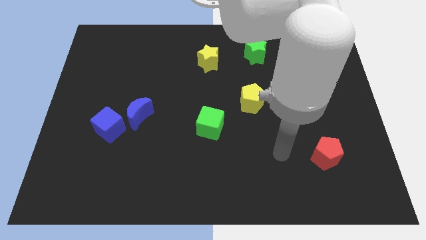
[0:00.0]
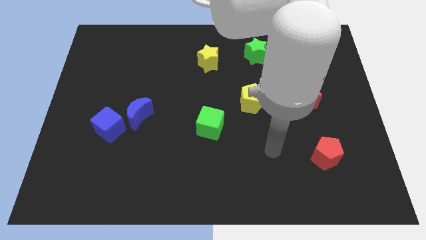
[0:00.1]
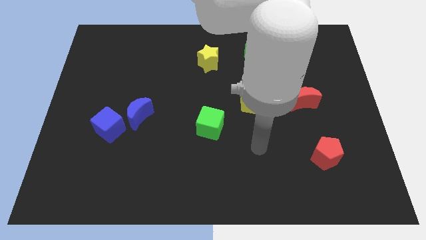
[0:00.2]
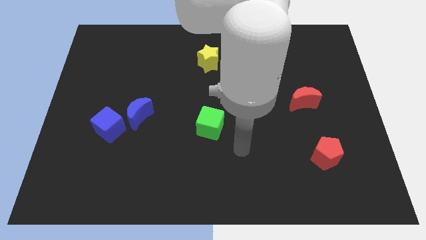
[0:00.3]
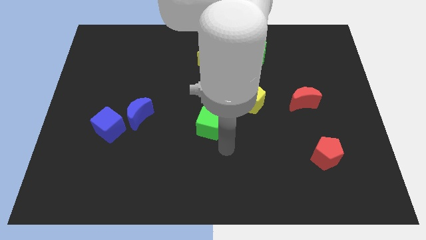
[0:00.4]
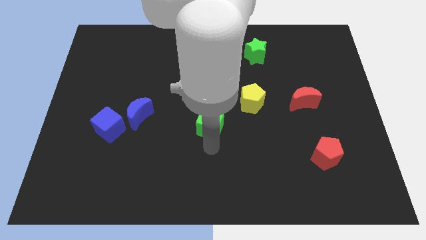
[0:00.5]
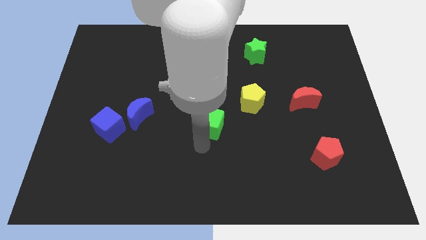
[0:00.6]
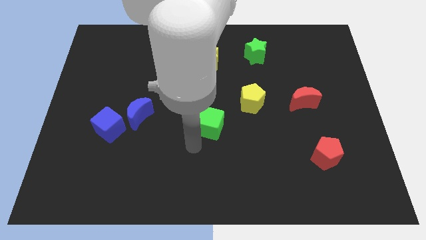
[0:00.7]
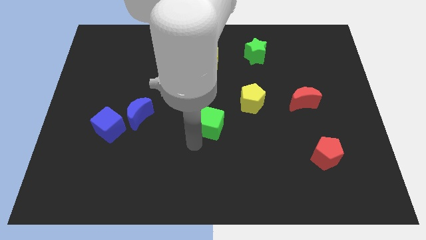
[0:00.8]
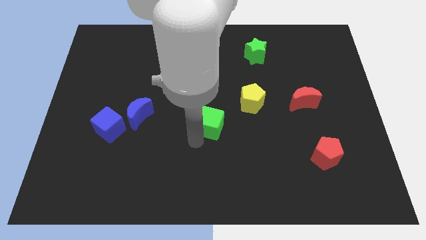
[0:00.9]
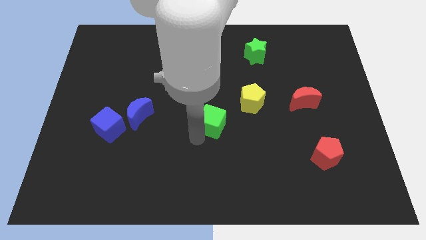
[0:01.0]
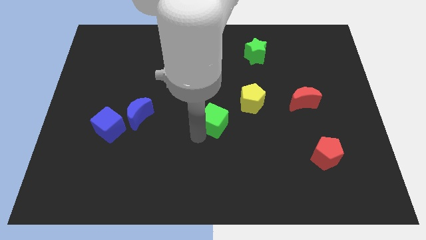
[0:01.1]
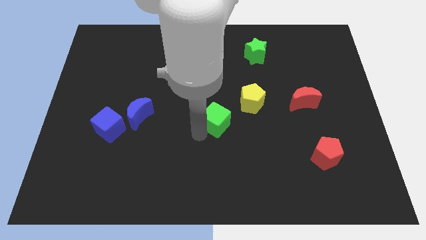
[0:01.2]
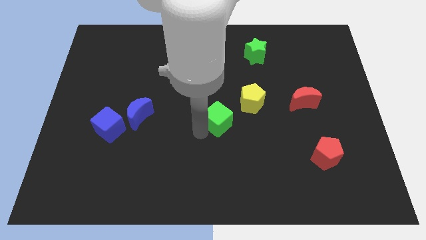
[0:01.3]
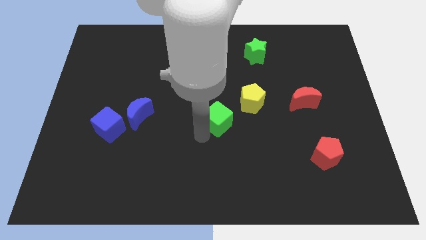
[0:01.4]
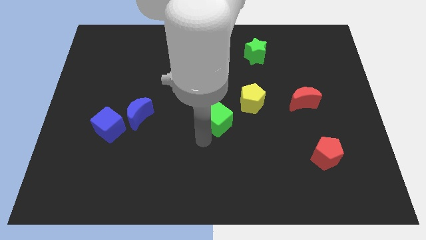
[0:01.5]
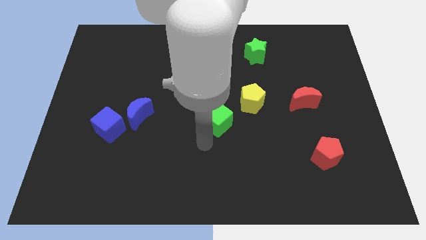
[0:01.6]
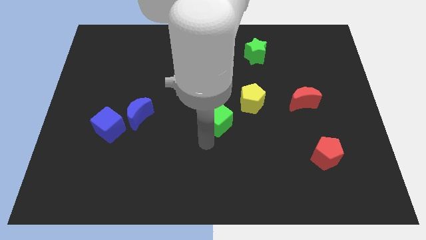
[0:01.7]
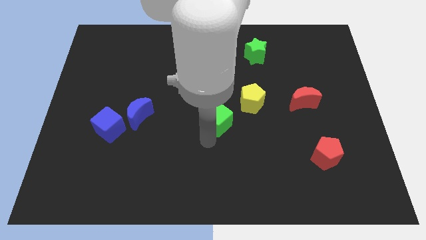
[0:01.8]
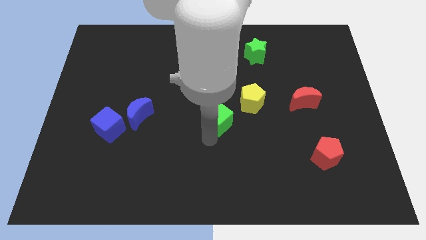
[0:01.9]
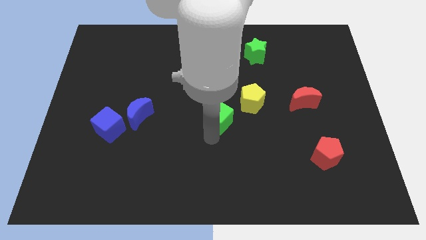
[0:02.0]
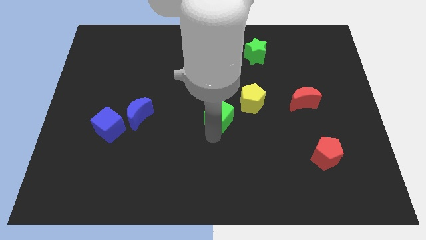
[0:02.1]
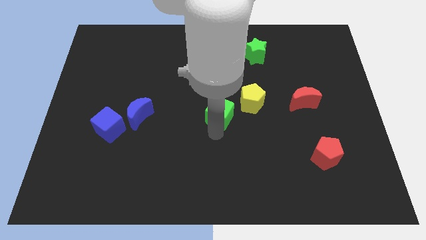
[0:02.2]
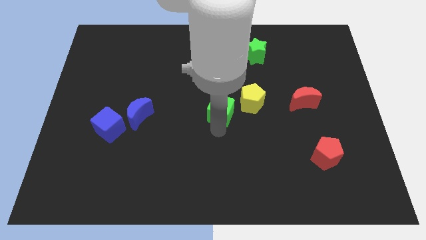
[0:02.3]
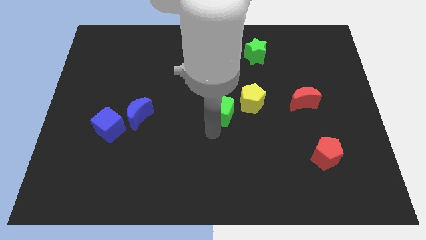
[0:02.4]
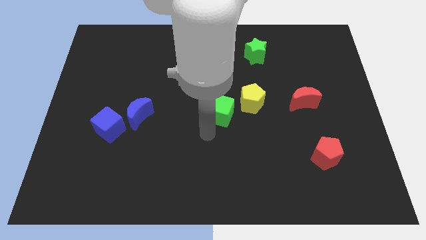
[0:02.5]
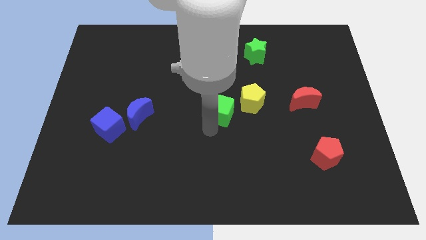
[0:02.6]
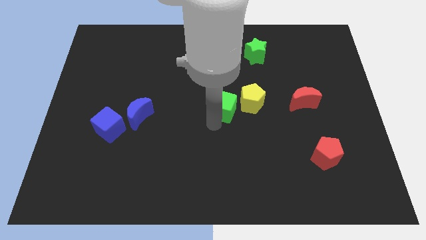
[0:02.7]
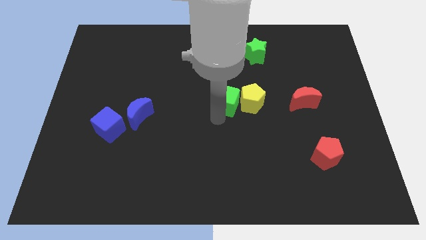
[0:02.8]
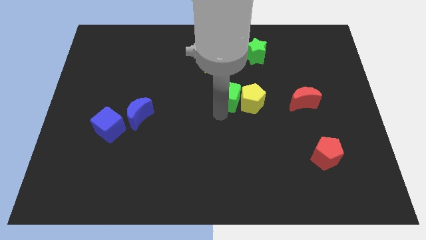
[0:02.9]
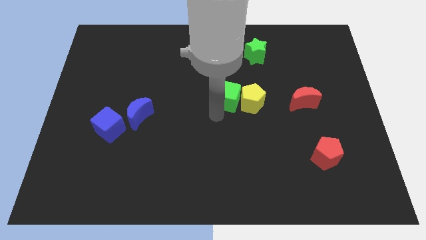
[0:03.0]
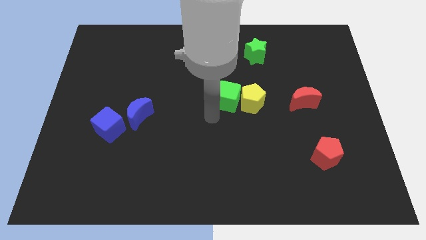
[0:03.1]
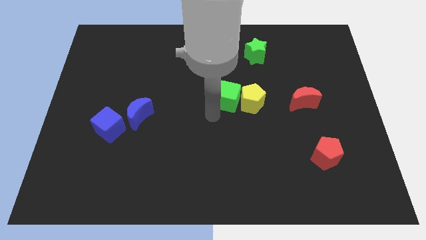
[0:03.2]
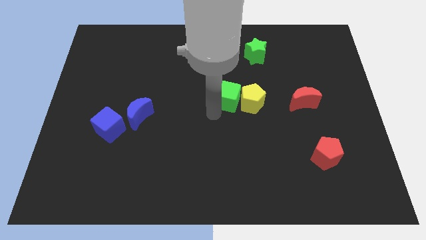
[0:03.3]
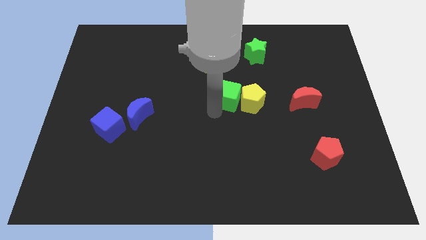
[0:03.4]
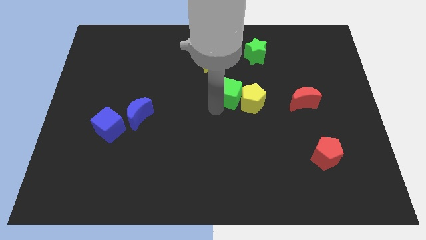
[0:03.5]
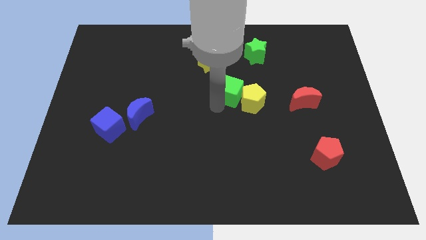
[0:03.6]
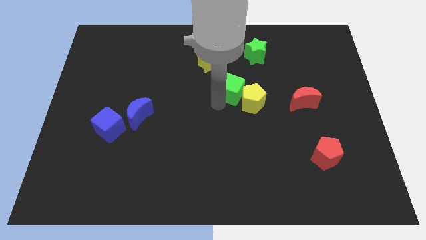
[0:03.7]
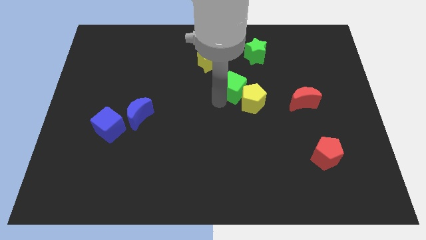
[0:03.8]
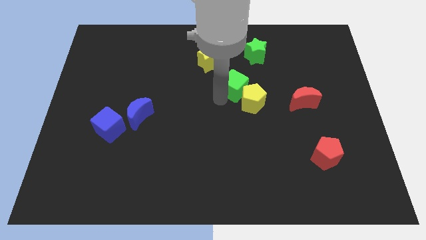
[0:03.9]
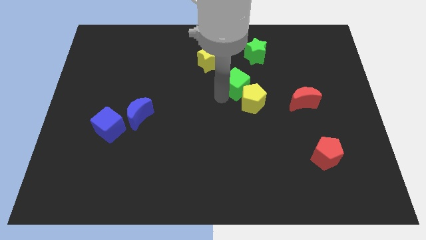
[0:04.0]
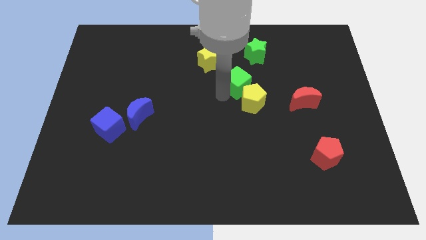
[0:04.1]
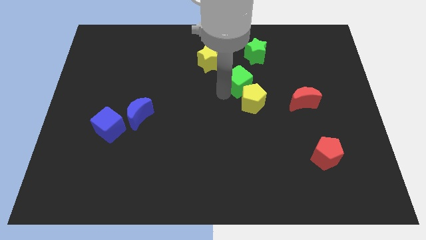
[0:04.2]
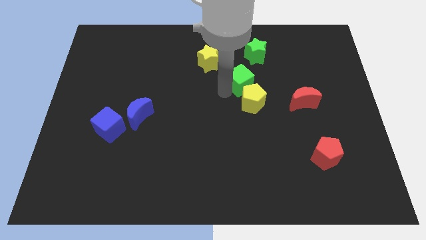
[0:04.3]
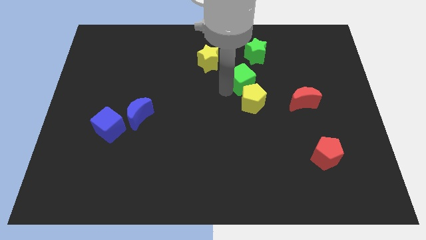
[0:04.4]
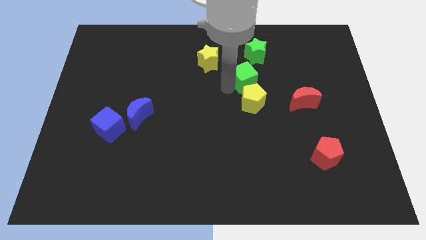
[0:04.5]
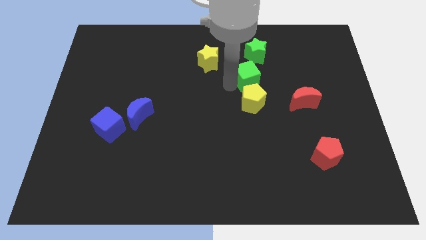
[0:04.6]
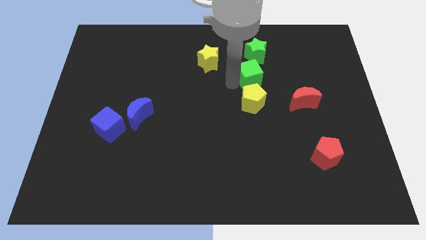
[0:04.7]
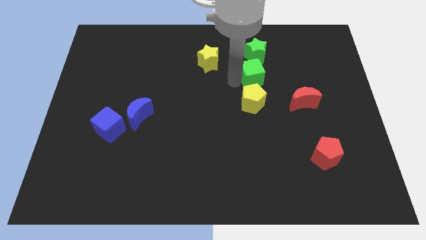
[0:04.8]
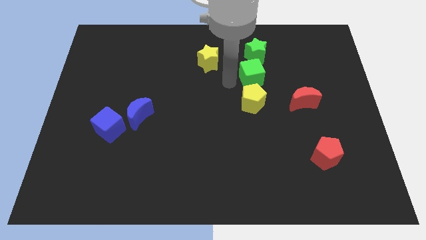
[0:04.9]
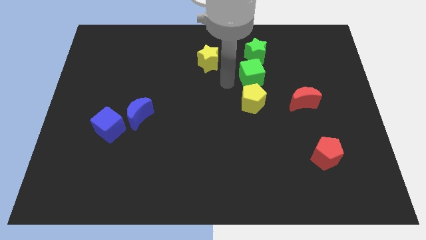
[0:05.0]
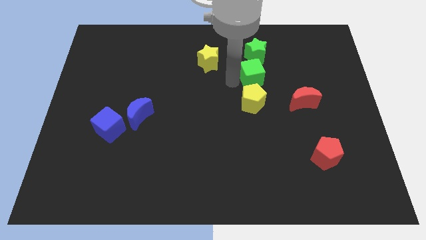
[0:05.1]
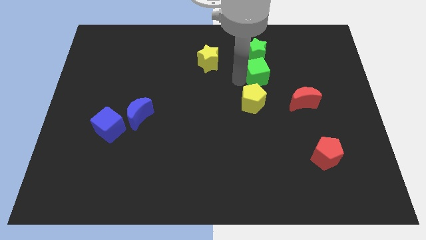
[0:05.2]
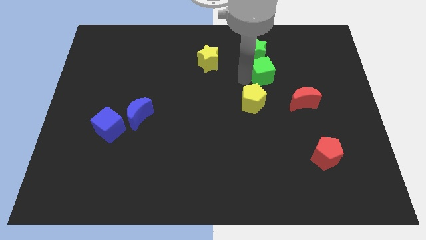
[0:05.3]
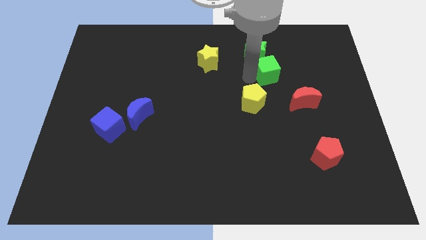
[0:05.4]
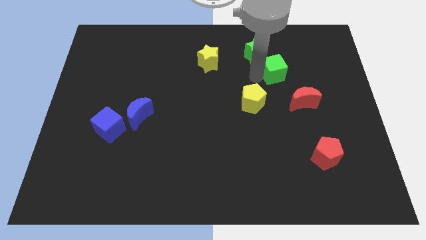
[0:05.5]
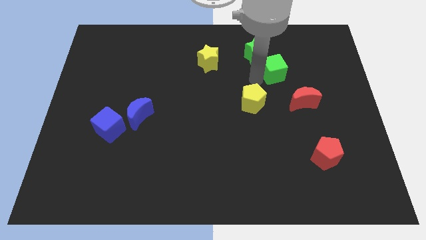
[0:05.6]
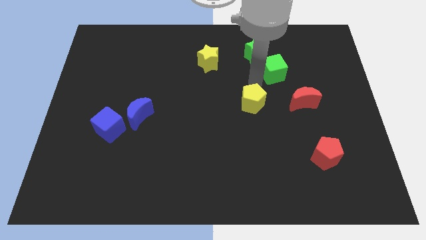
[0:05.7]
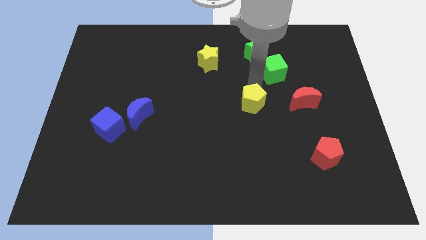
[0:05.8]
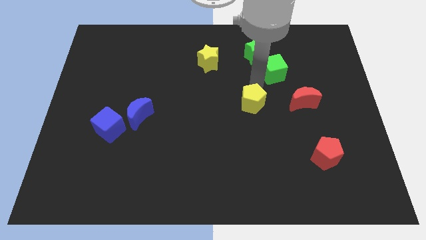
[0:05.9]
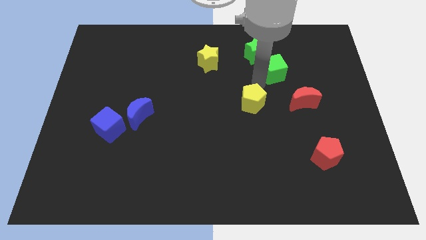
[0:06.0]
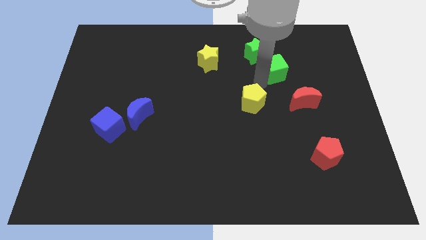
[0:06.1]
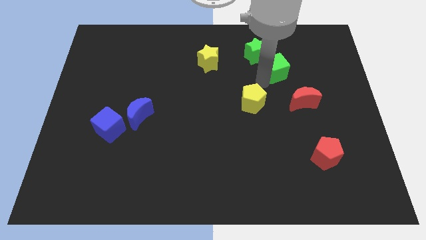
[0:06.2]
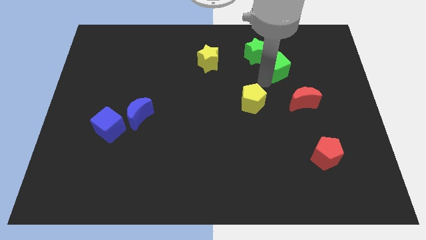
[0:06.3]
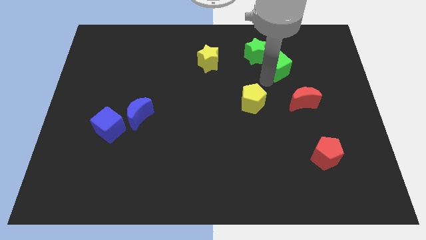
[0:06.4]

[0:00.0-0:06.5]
move the green cube to the right of the green star
